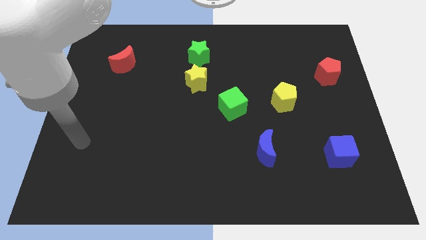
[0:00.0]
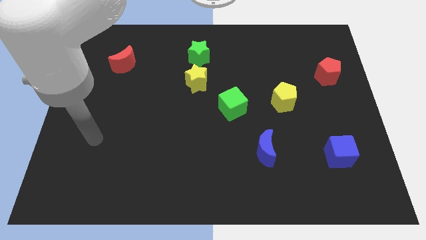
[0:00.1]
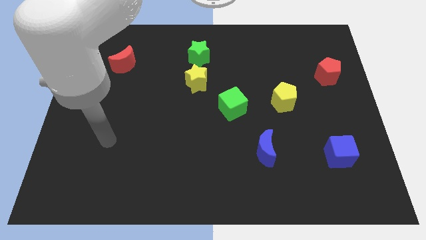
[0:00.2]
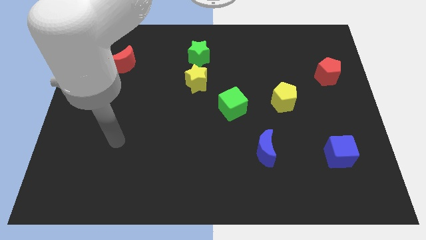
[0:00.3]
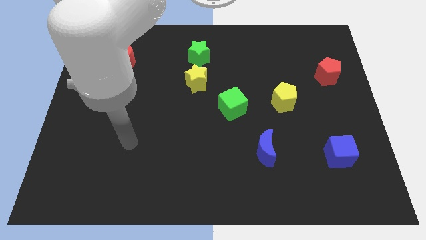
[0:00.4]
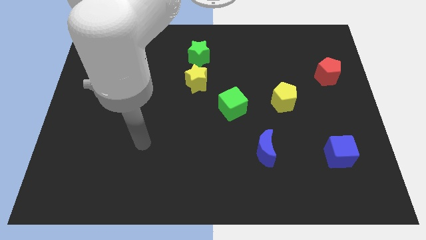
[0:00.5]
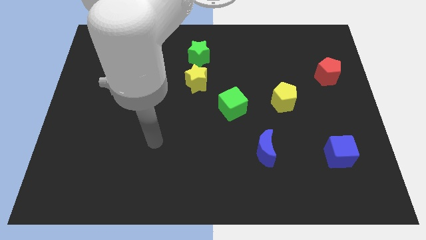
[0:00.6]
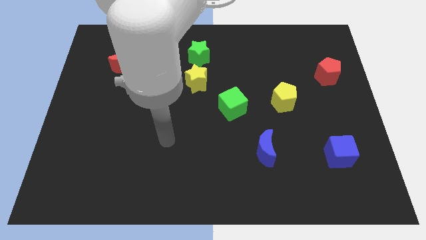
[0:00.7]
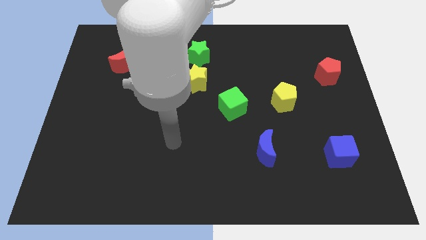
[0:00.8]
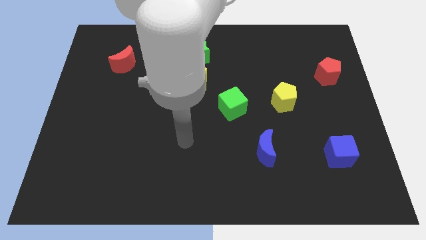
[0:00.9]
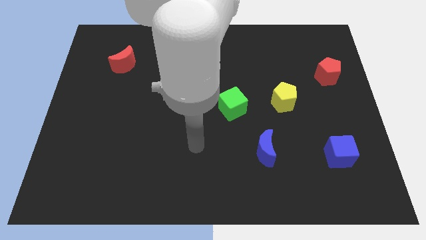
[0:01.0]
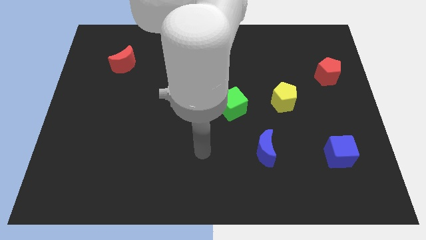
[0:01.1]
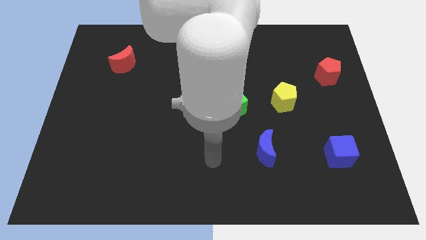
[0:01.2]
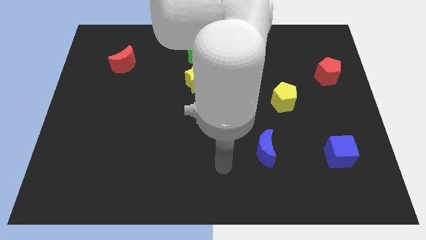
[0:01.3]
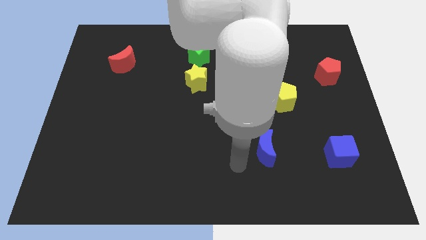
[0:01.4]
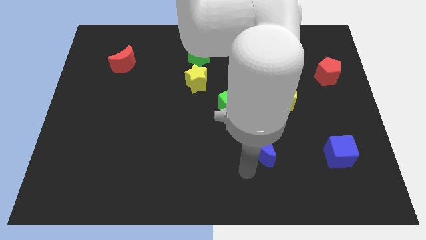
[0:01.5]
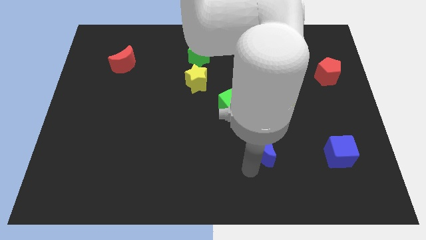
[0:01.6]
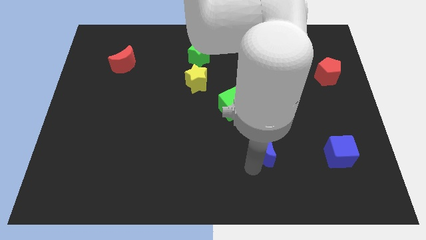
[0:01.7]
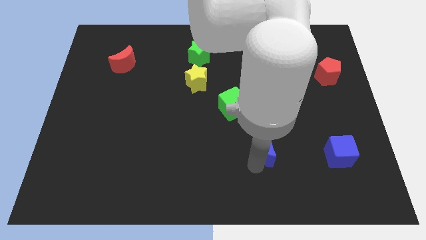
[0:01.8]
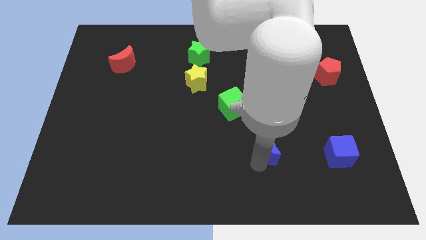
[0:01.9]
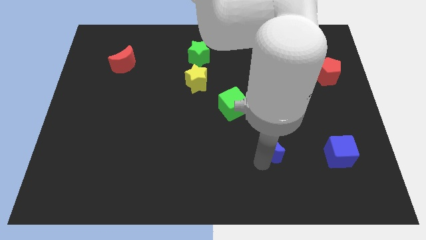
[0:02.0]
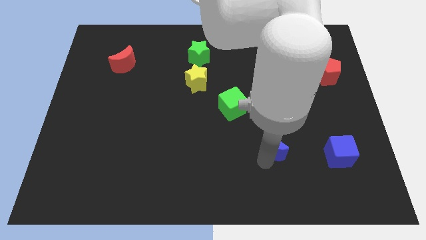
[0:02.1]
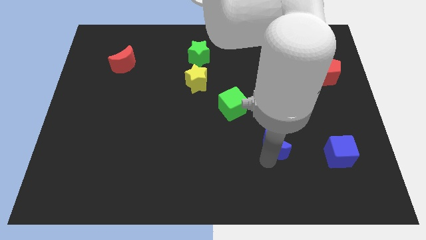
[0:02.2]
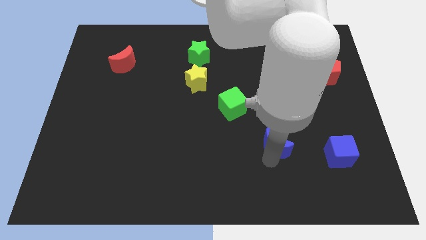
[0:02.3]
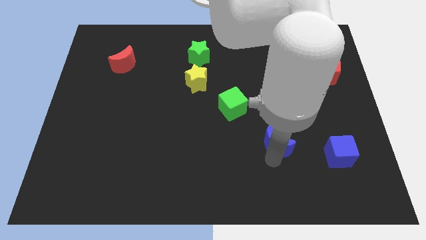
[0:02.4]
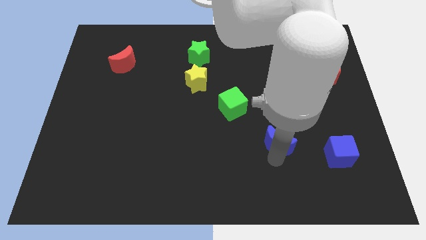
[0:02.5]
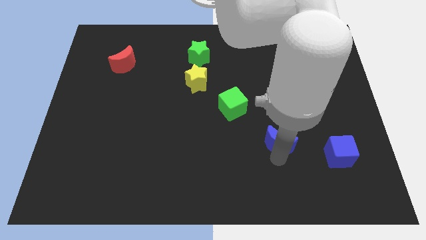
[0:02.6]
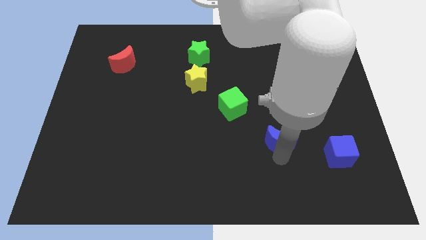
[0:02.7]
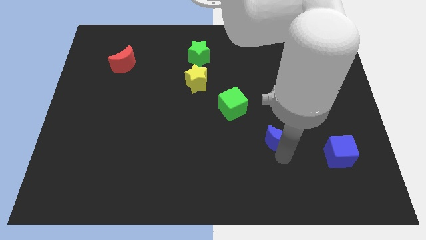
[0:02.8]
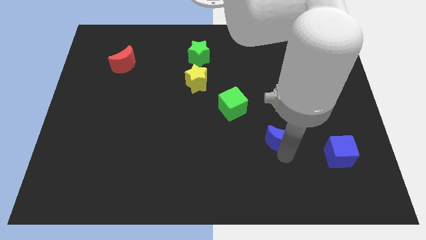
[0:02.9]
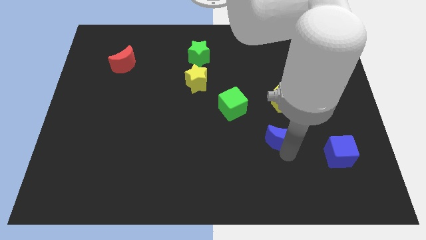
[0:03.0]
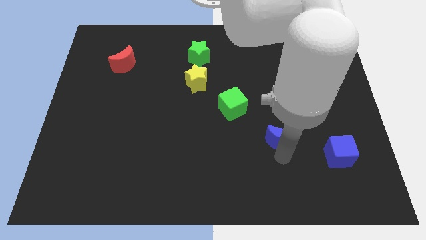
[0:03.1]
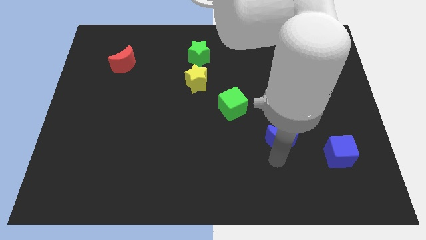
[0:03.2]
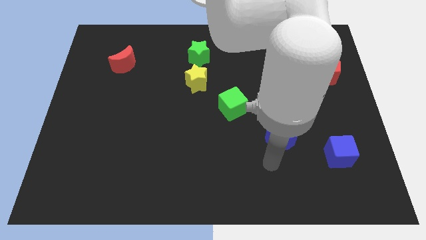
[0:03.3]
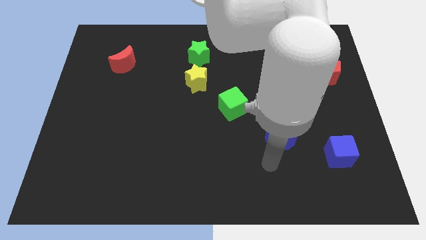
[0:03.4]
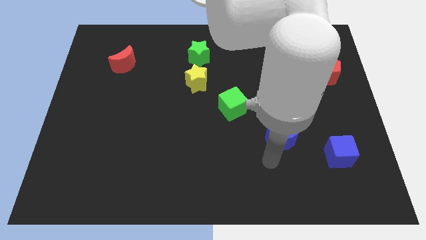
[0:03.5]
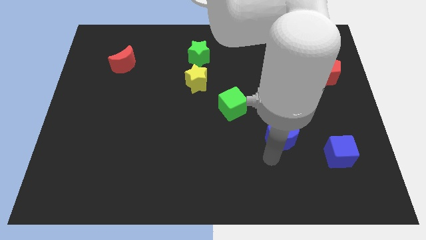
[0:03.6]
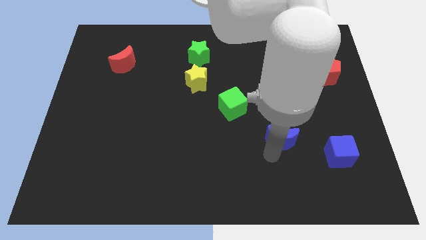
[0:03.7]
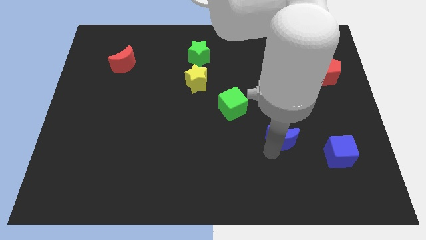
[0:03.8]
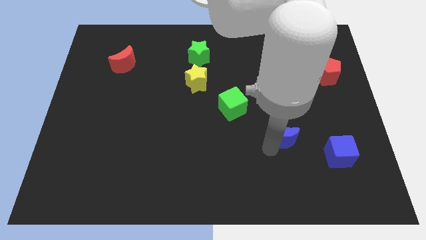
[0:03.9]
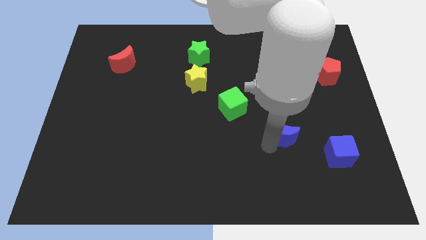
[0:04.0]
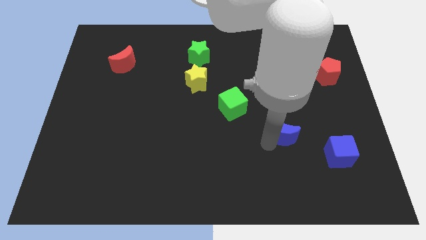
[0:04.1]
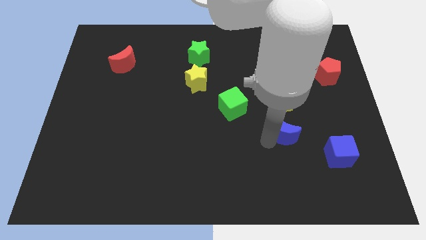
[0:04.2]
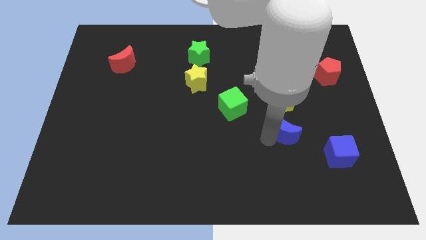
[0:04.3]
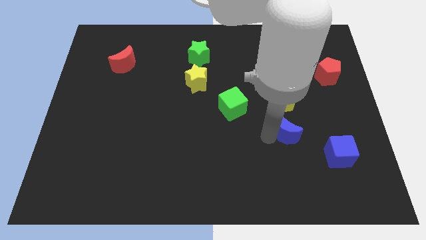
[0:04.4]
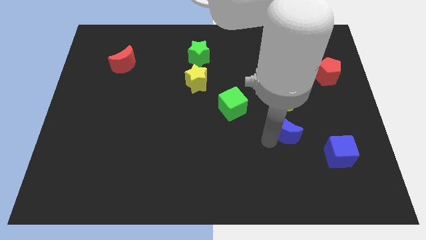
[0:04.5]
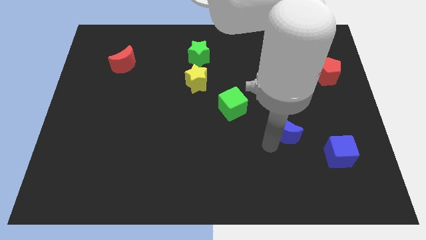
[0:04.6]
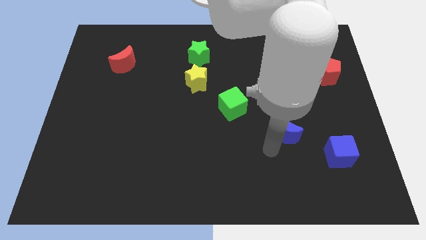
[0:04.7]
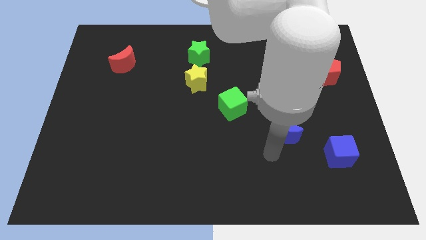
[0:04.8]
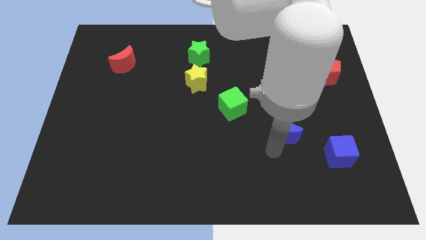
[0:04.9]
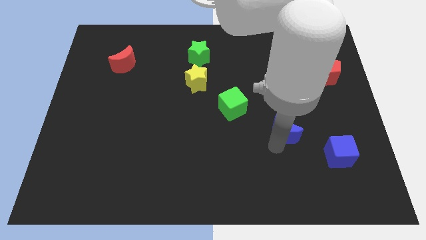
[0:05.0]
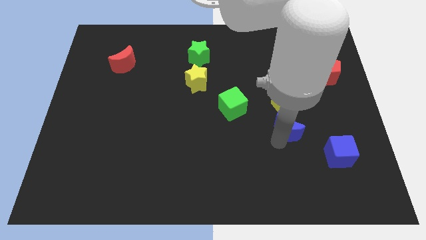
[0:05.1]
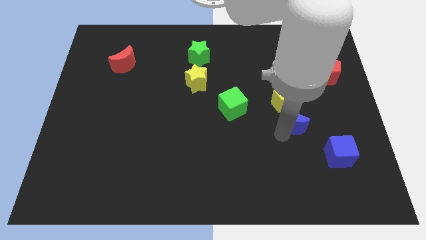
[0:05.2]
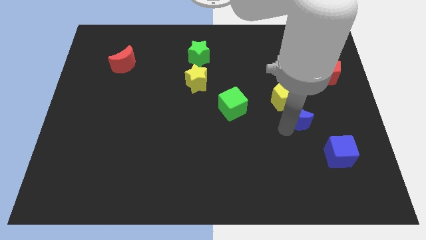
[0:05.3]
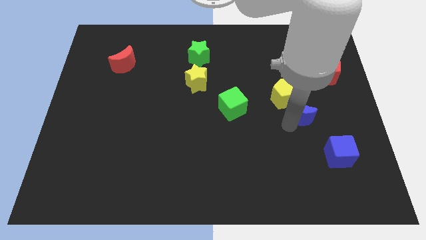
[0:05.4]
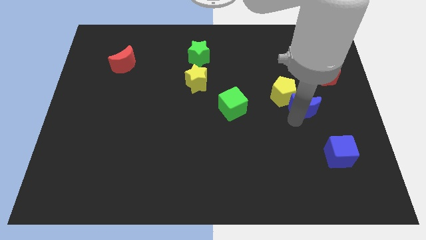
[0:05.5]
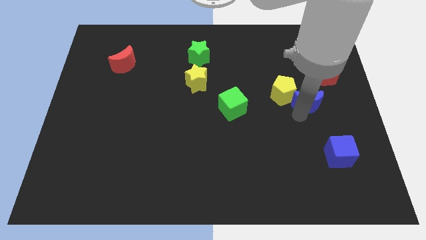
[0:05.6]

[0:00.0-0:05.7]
slide the blue moon to the bottom left side of the red pentagon

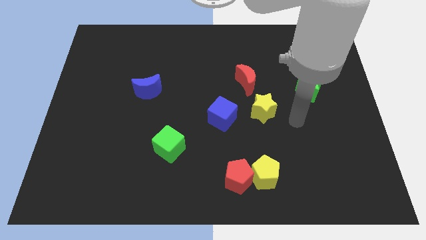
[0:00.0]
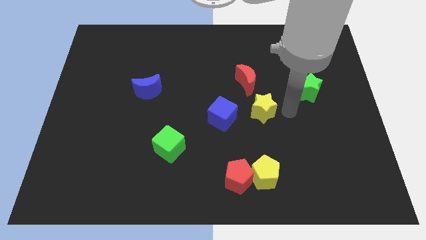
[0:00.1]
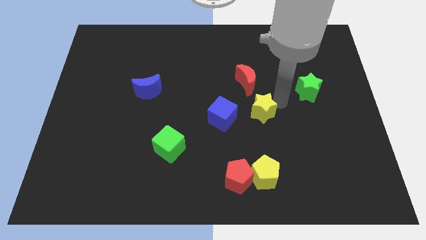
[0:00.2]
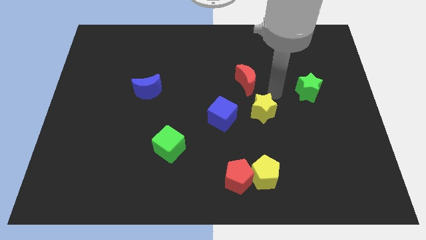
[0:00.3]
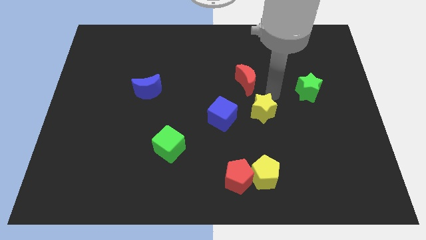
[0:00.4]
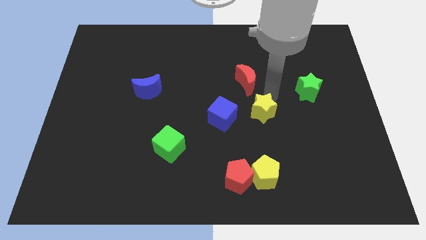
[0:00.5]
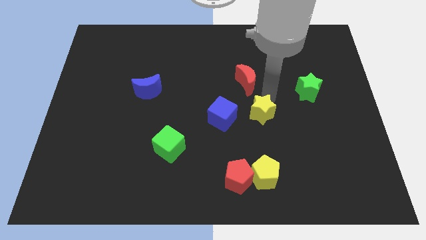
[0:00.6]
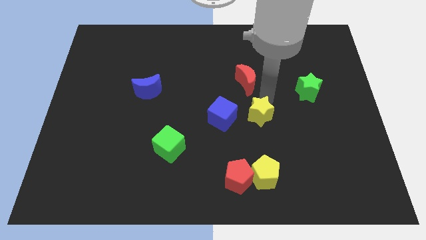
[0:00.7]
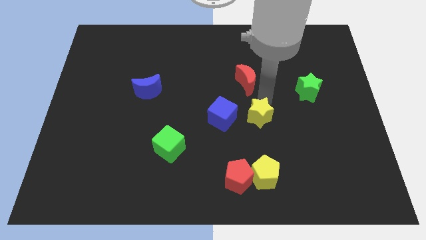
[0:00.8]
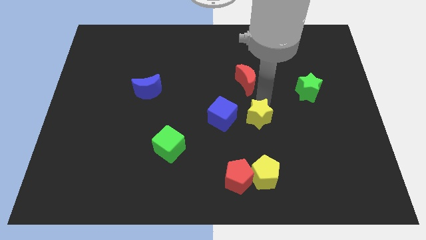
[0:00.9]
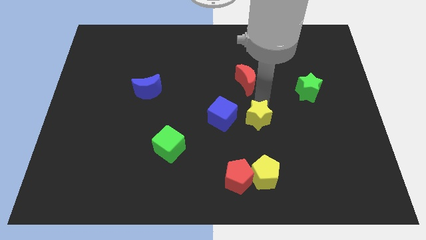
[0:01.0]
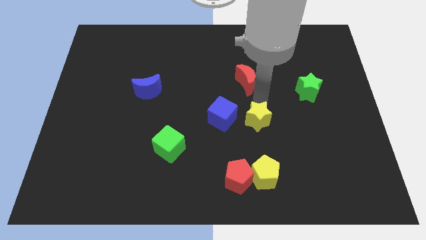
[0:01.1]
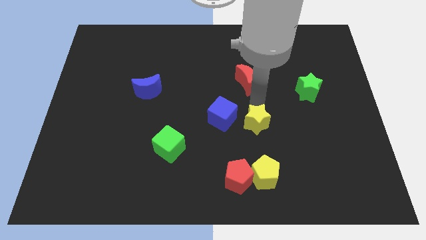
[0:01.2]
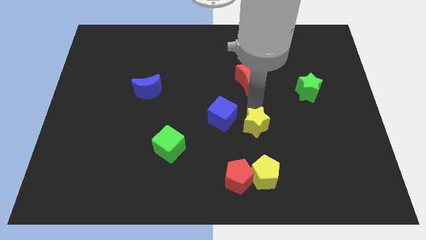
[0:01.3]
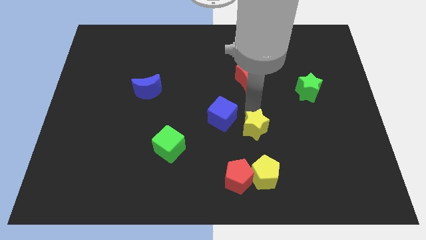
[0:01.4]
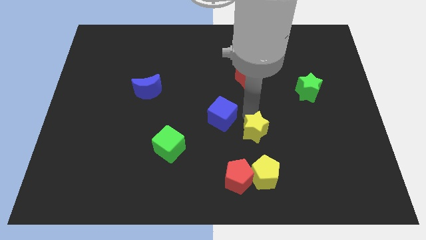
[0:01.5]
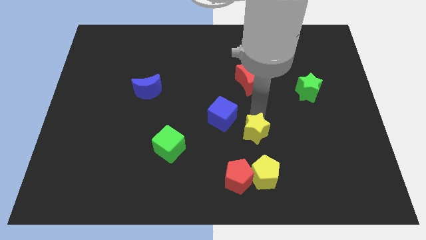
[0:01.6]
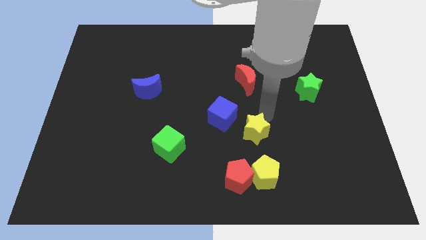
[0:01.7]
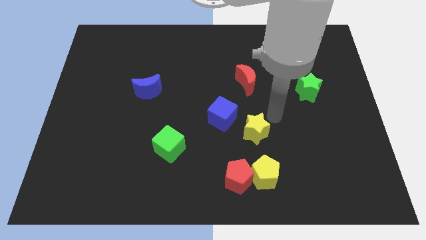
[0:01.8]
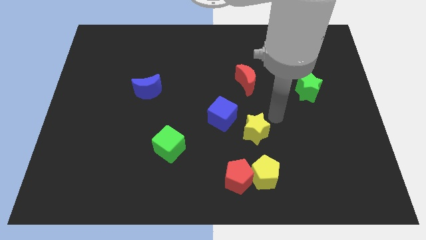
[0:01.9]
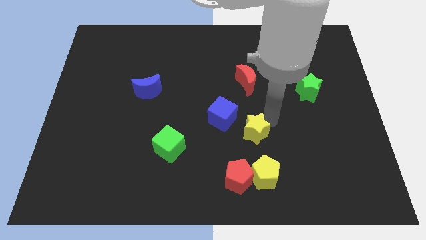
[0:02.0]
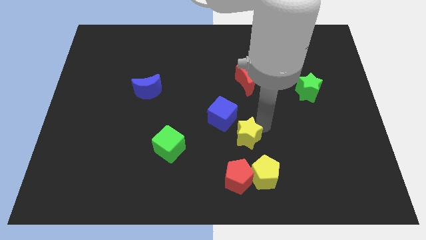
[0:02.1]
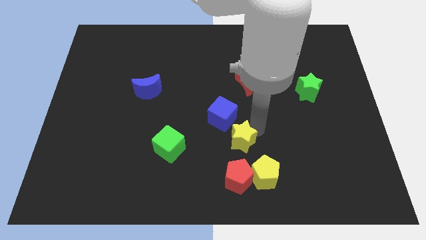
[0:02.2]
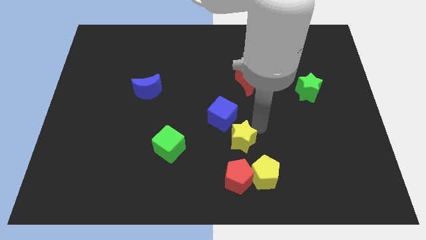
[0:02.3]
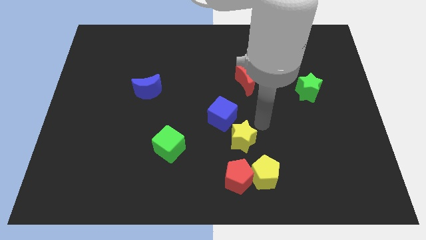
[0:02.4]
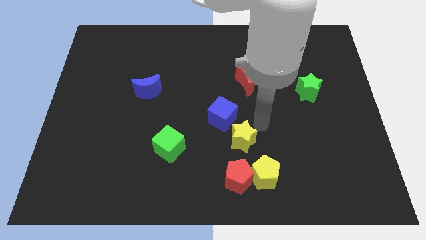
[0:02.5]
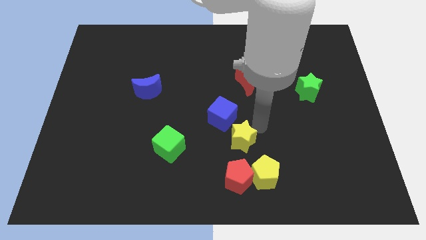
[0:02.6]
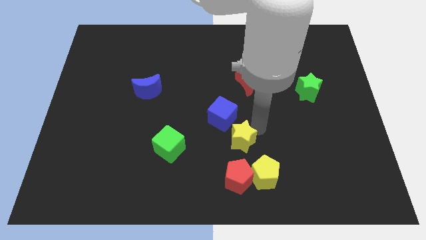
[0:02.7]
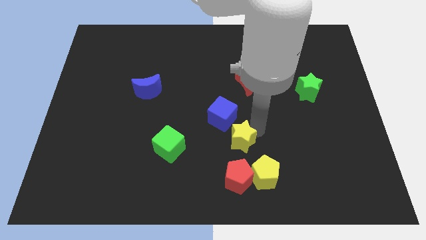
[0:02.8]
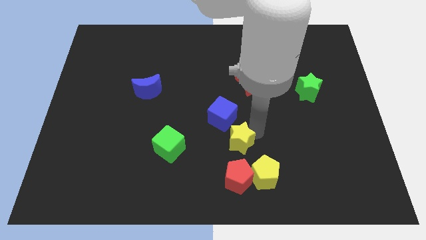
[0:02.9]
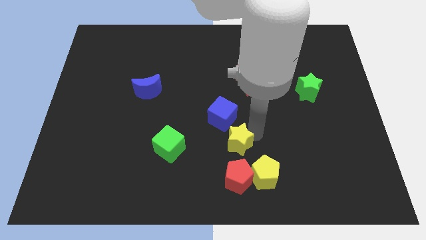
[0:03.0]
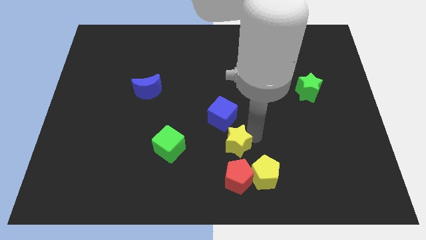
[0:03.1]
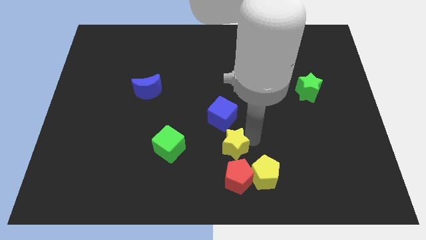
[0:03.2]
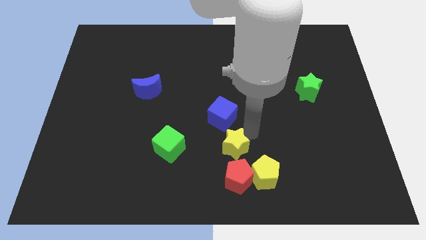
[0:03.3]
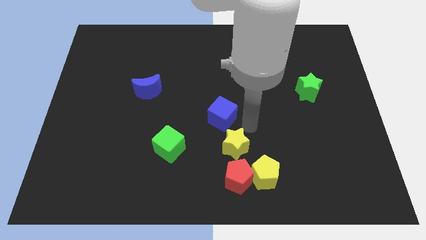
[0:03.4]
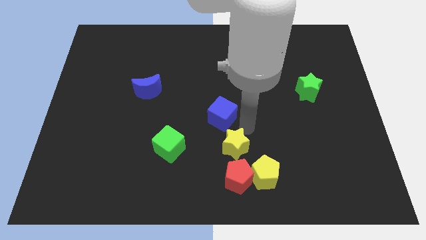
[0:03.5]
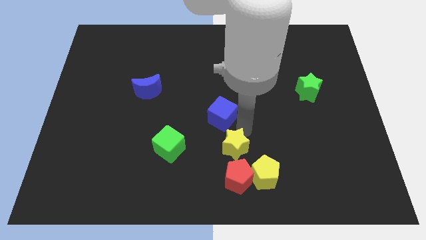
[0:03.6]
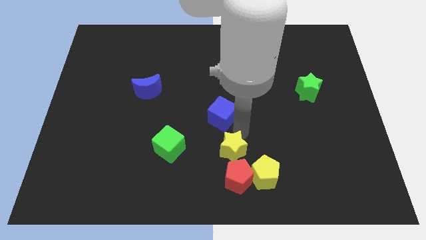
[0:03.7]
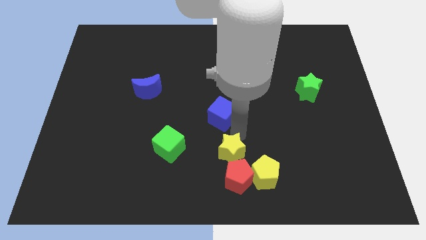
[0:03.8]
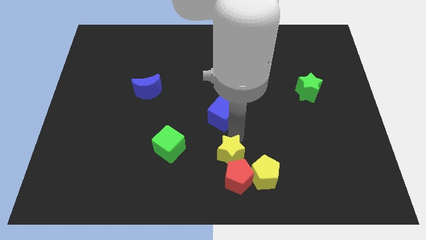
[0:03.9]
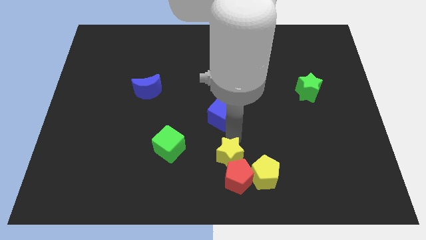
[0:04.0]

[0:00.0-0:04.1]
put the yellow star to the left side of the yellow pentagon
